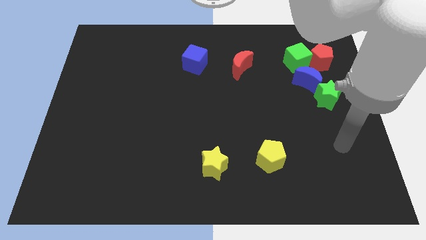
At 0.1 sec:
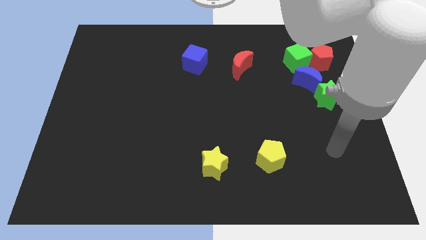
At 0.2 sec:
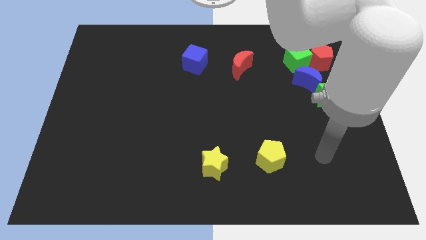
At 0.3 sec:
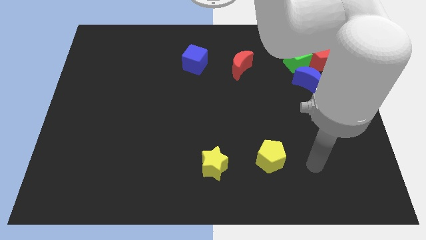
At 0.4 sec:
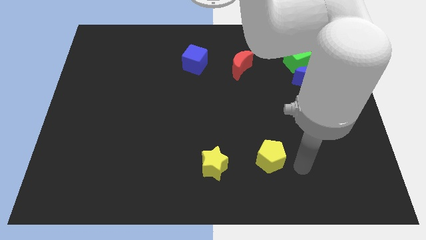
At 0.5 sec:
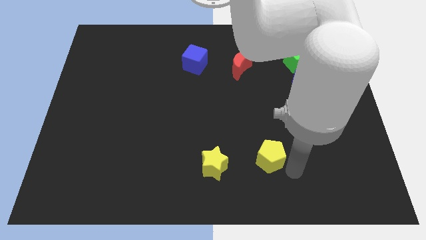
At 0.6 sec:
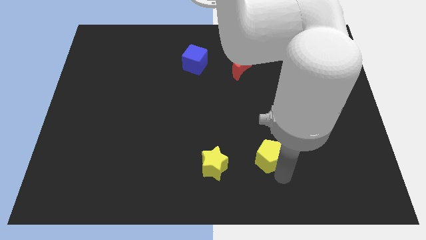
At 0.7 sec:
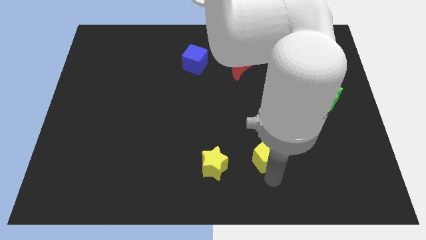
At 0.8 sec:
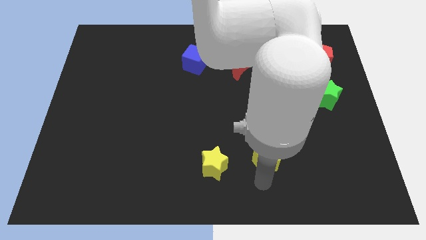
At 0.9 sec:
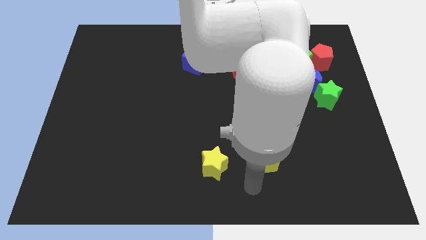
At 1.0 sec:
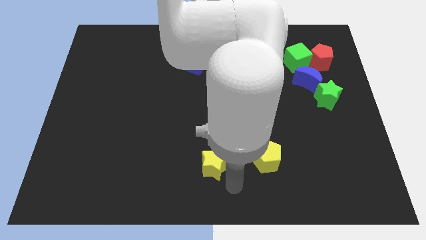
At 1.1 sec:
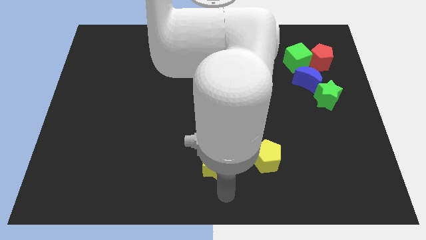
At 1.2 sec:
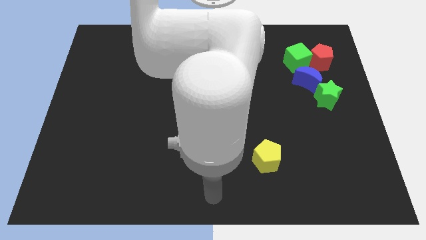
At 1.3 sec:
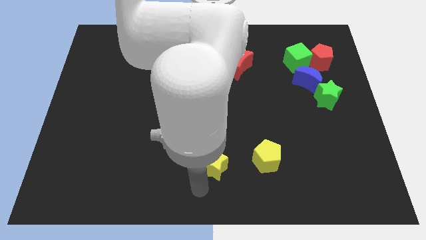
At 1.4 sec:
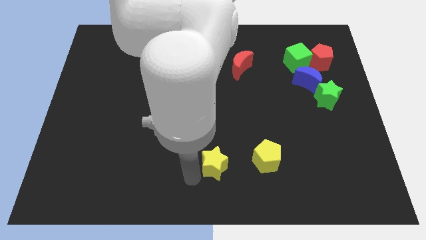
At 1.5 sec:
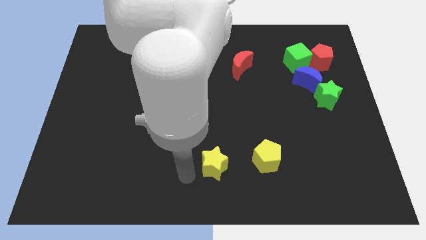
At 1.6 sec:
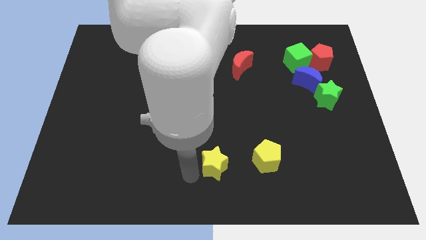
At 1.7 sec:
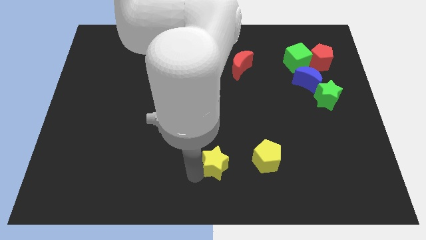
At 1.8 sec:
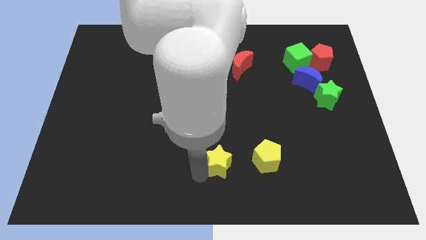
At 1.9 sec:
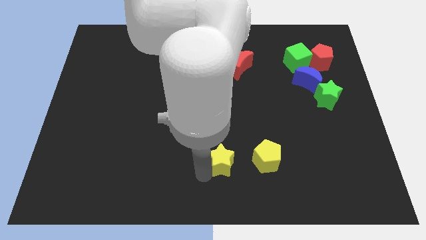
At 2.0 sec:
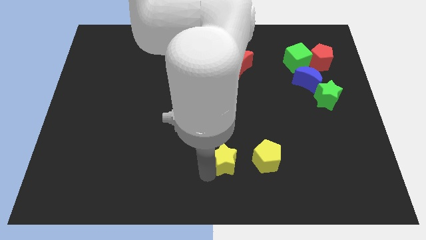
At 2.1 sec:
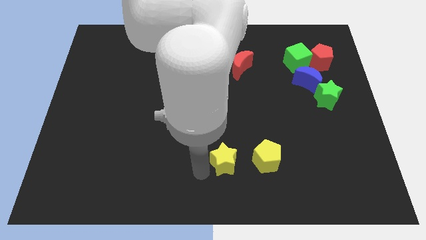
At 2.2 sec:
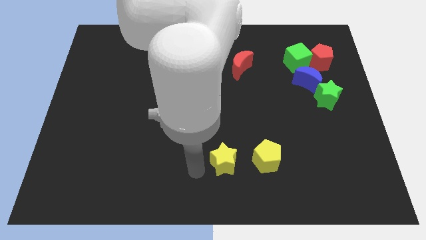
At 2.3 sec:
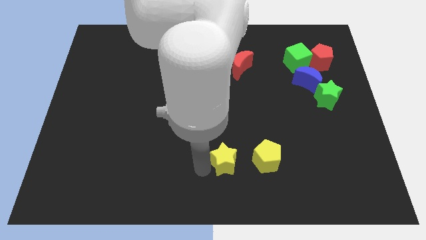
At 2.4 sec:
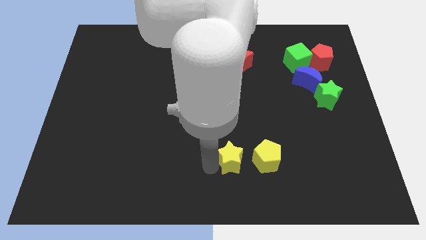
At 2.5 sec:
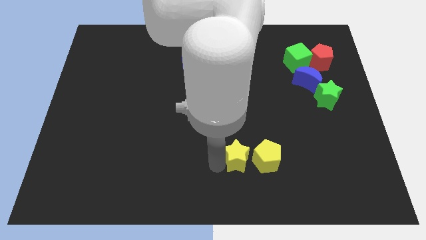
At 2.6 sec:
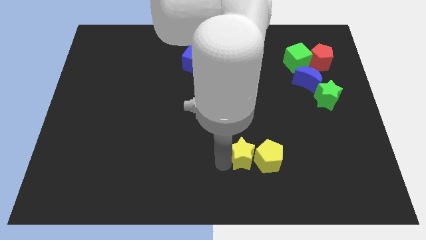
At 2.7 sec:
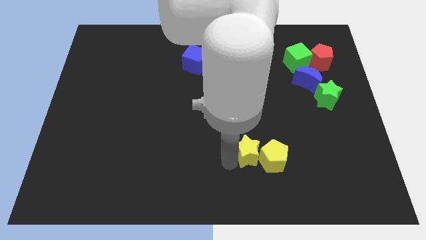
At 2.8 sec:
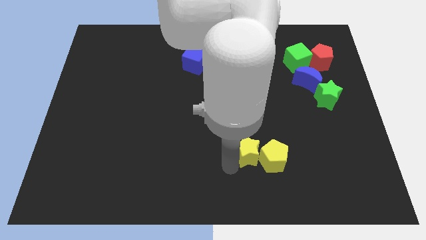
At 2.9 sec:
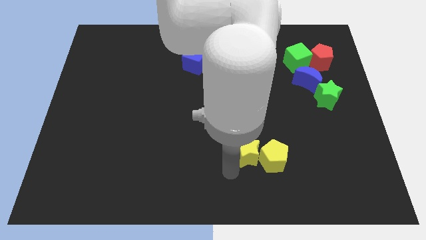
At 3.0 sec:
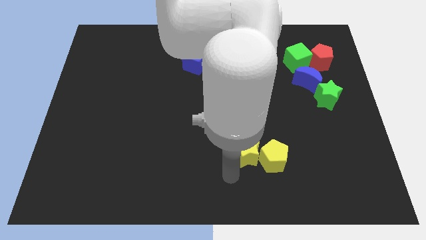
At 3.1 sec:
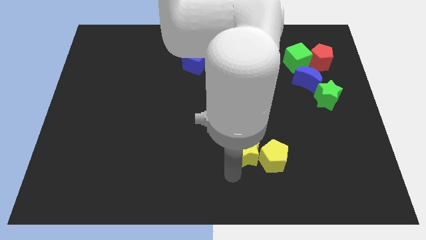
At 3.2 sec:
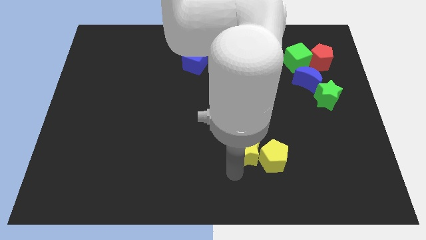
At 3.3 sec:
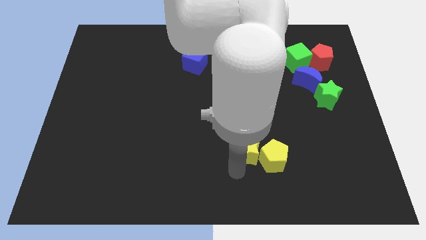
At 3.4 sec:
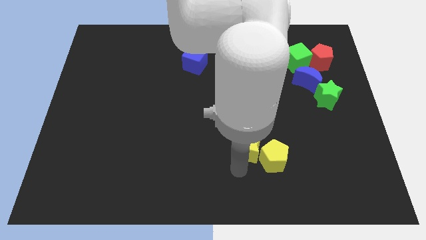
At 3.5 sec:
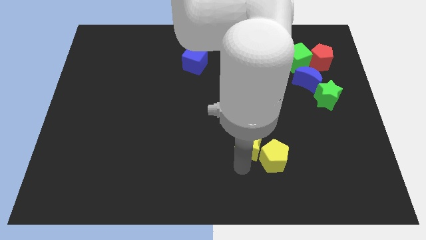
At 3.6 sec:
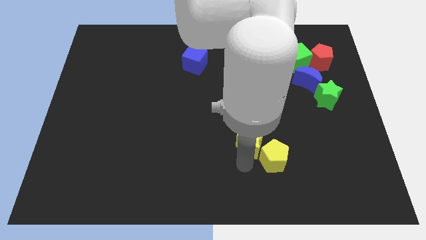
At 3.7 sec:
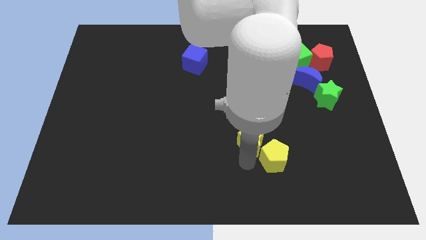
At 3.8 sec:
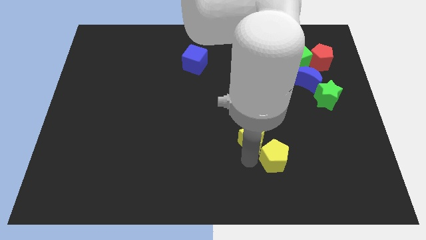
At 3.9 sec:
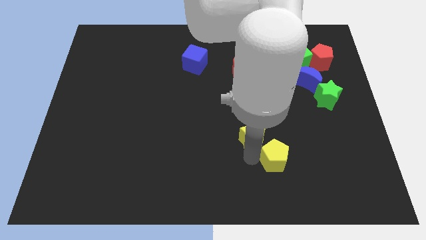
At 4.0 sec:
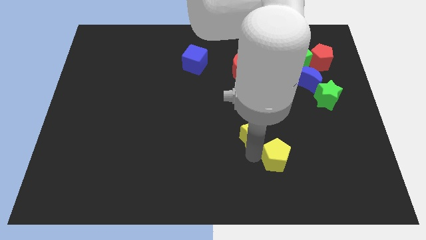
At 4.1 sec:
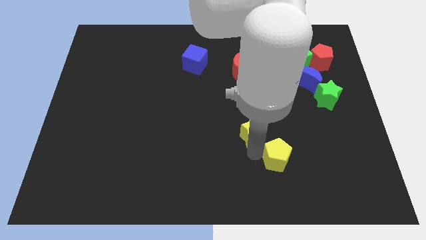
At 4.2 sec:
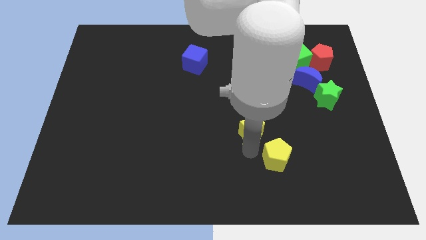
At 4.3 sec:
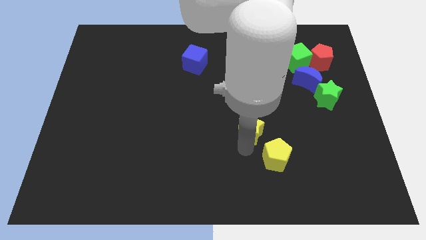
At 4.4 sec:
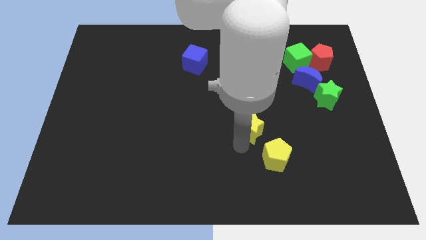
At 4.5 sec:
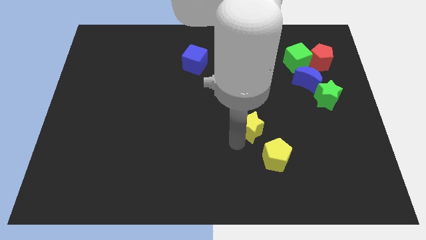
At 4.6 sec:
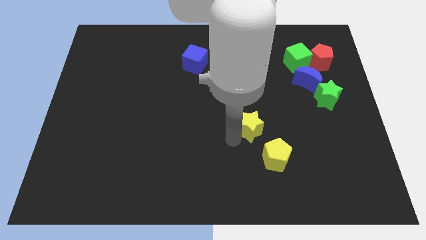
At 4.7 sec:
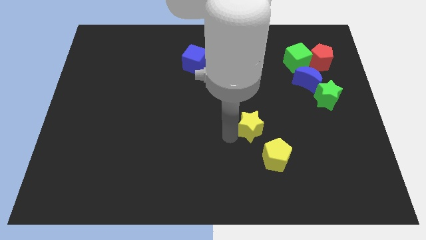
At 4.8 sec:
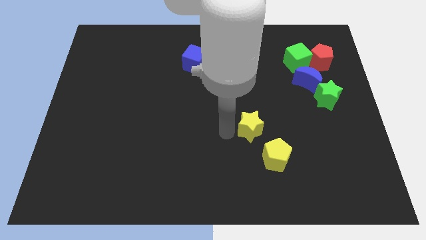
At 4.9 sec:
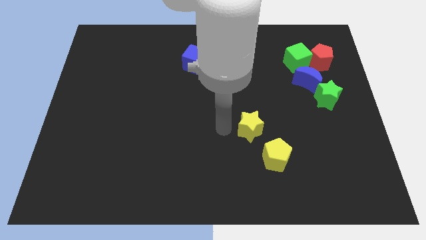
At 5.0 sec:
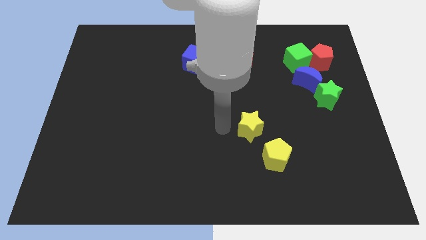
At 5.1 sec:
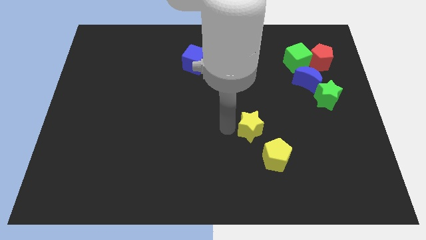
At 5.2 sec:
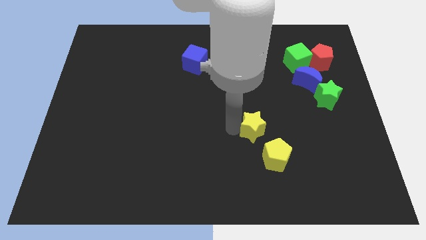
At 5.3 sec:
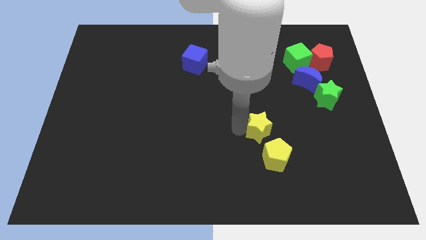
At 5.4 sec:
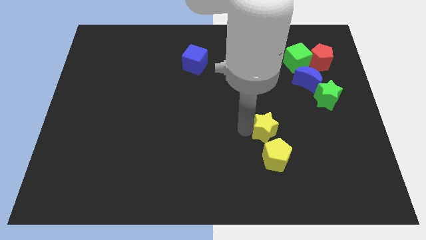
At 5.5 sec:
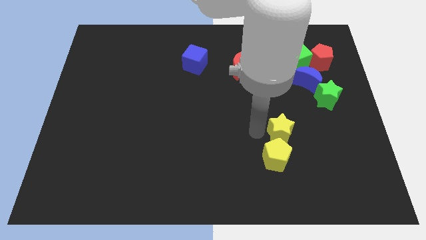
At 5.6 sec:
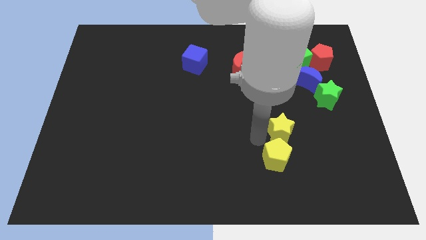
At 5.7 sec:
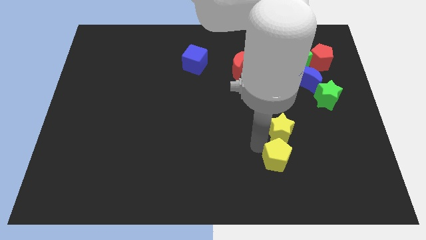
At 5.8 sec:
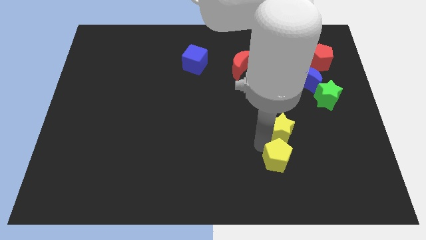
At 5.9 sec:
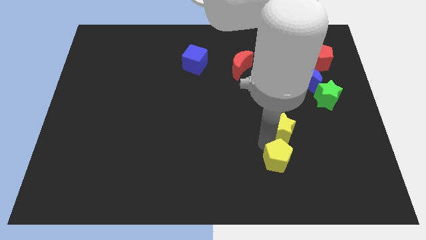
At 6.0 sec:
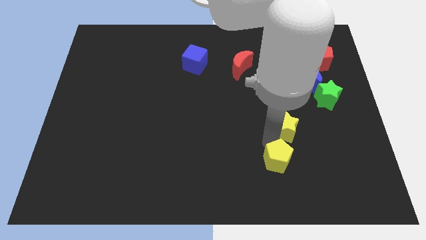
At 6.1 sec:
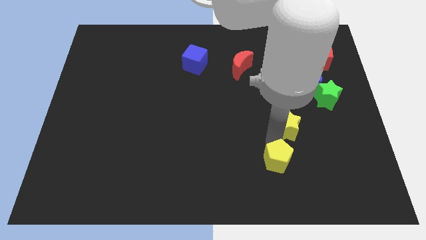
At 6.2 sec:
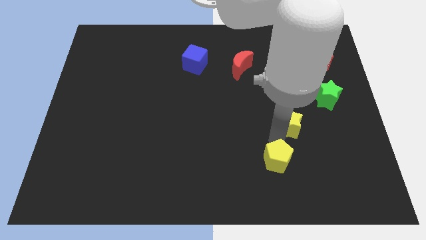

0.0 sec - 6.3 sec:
slide the yellow star to the bottom left of the green star

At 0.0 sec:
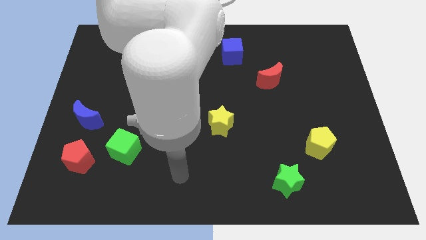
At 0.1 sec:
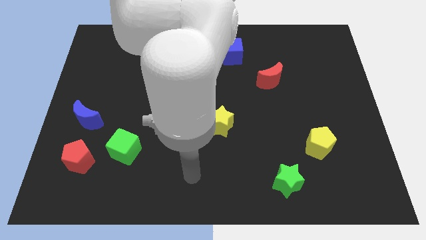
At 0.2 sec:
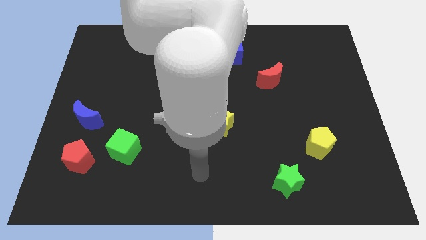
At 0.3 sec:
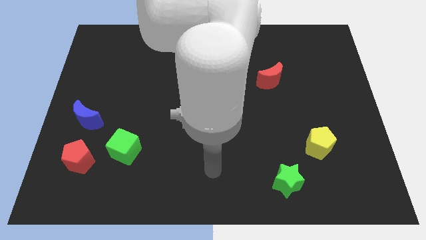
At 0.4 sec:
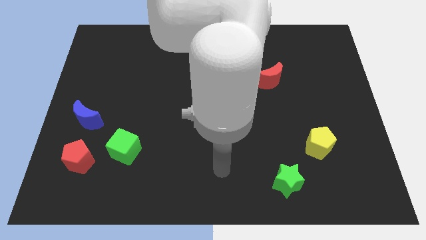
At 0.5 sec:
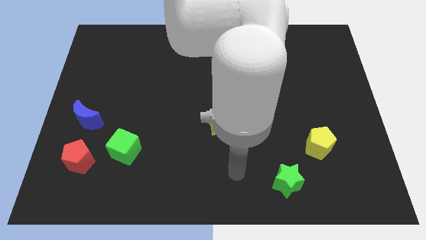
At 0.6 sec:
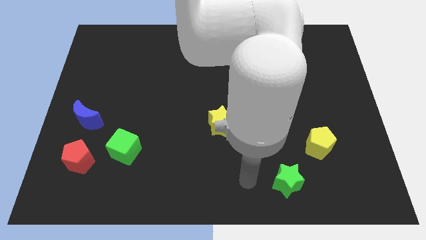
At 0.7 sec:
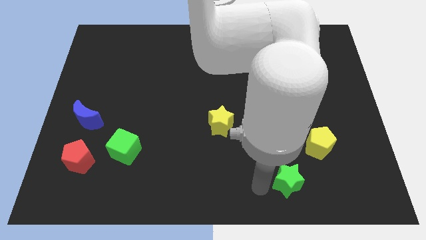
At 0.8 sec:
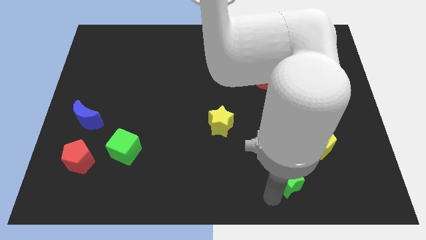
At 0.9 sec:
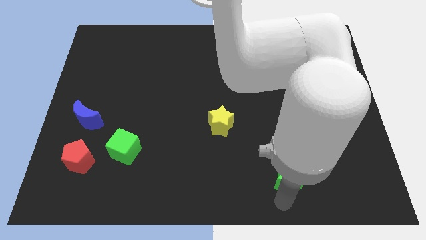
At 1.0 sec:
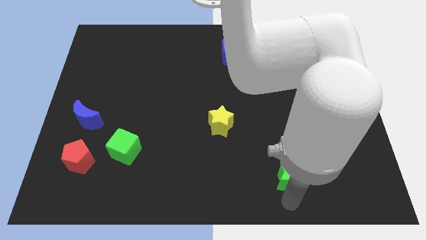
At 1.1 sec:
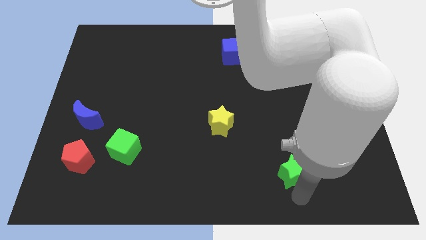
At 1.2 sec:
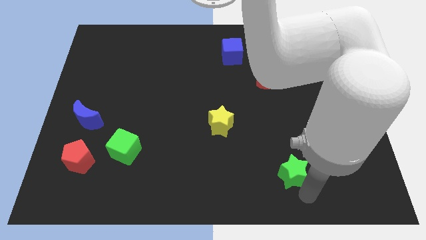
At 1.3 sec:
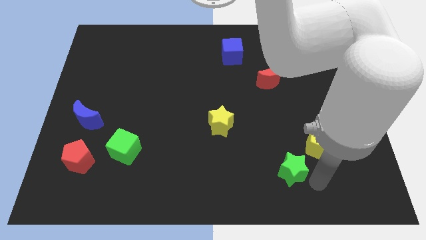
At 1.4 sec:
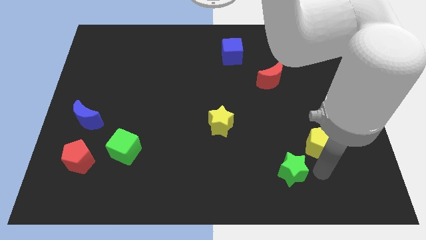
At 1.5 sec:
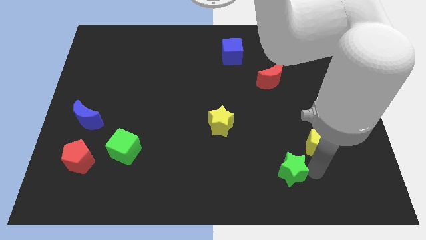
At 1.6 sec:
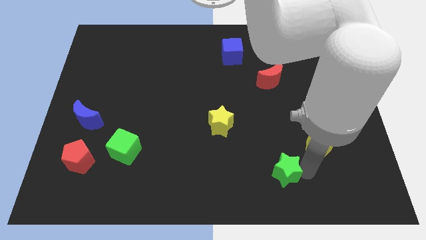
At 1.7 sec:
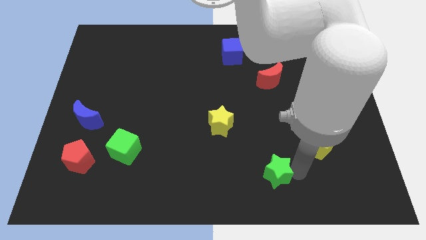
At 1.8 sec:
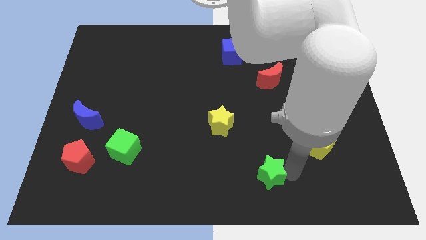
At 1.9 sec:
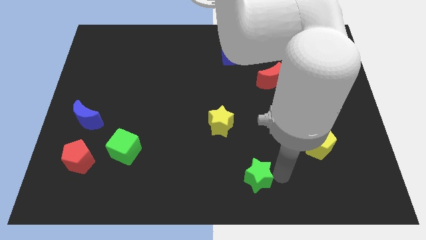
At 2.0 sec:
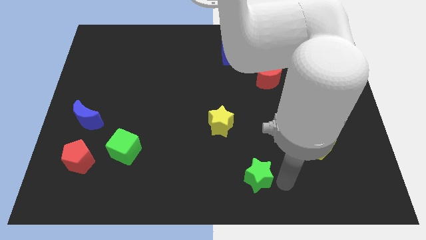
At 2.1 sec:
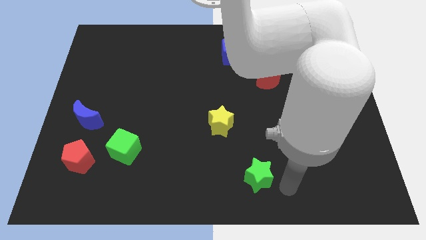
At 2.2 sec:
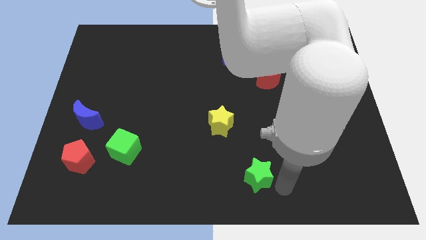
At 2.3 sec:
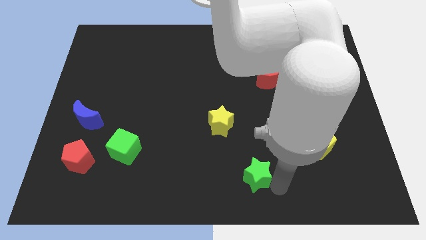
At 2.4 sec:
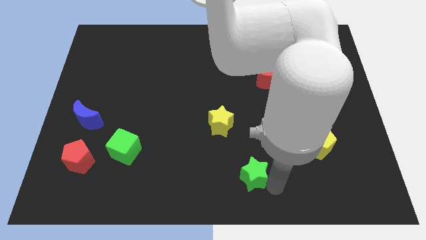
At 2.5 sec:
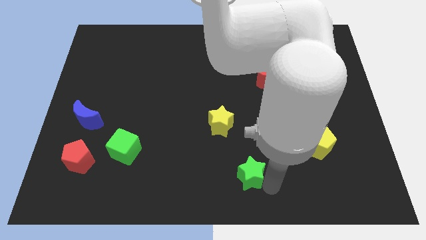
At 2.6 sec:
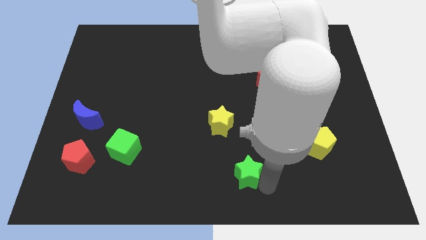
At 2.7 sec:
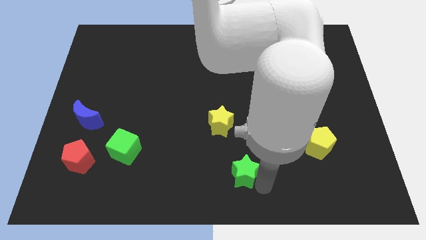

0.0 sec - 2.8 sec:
push the green star below the yellow star
